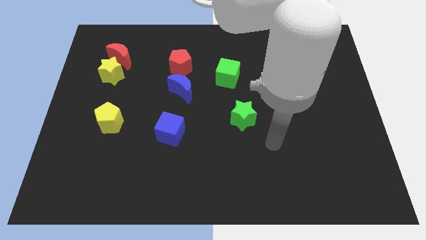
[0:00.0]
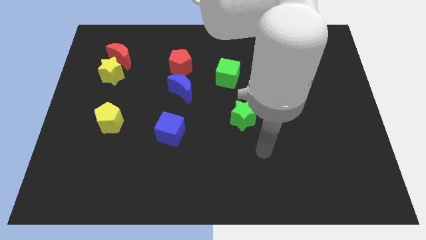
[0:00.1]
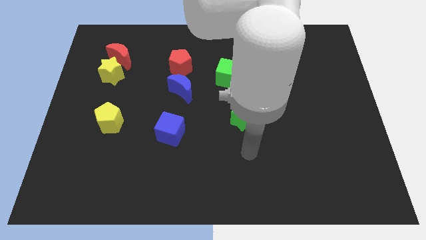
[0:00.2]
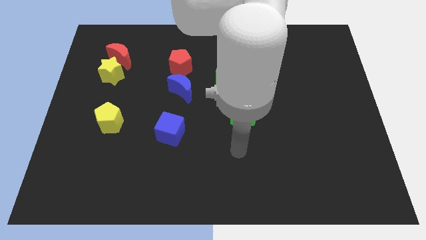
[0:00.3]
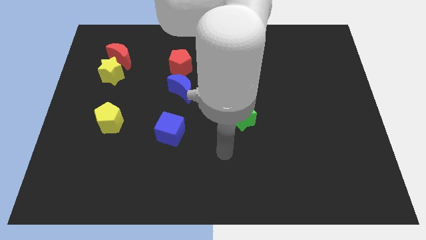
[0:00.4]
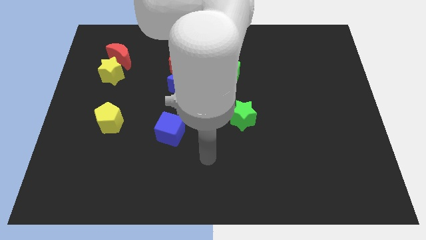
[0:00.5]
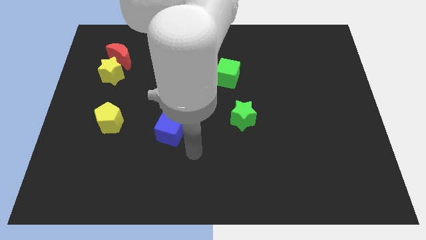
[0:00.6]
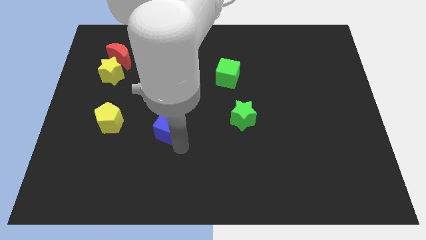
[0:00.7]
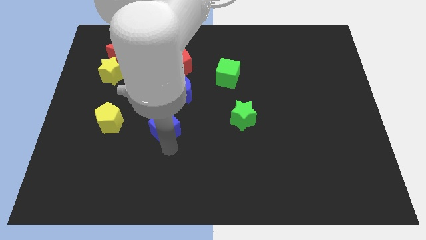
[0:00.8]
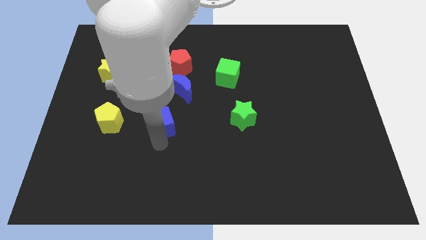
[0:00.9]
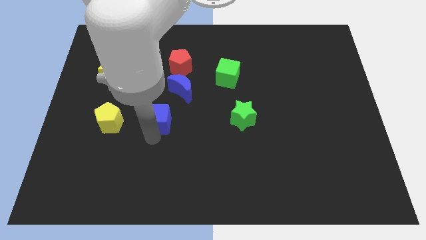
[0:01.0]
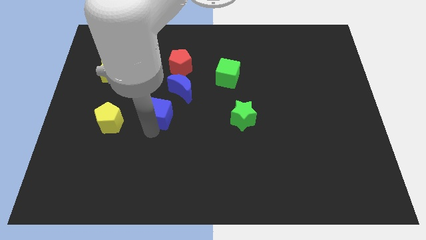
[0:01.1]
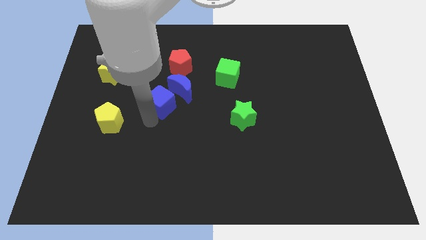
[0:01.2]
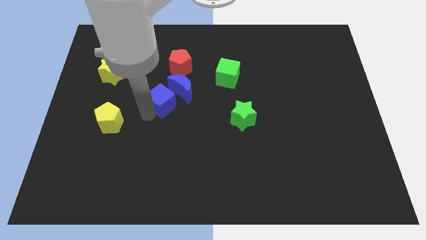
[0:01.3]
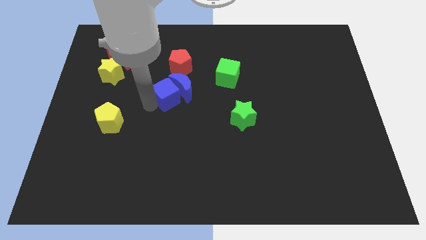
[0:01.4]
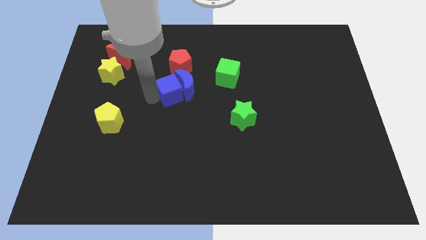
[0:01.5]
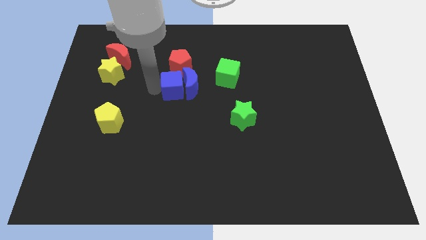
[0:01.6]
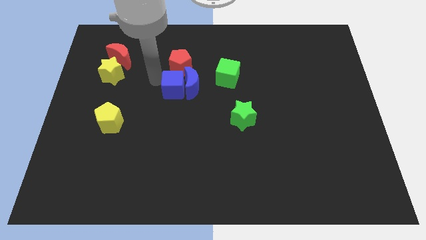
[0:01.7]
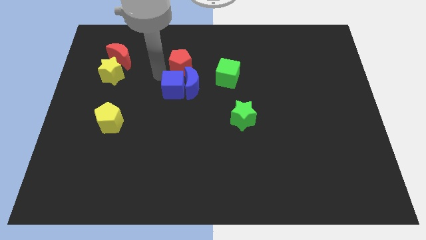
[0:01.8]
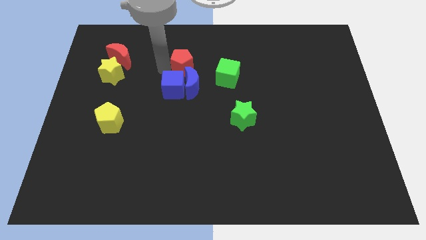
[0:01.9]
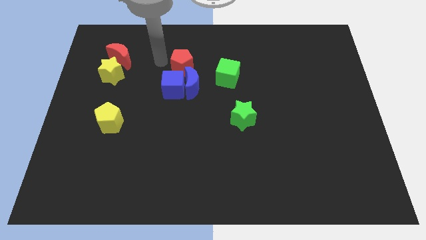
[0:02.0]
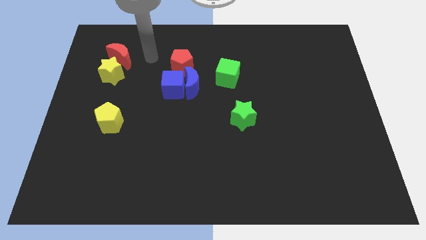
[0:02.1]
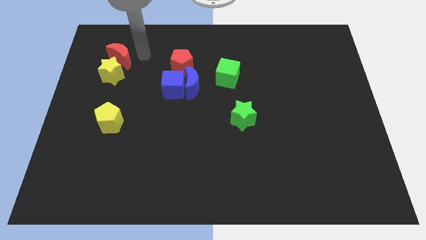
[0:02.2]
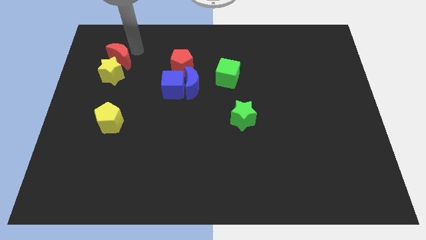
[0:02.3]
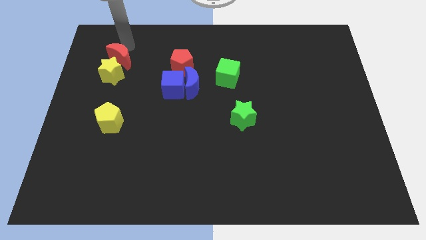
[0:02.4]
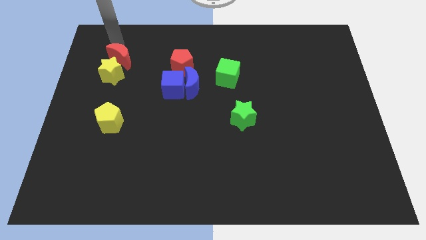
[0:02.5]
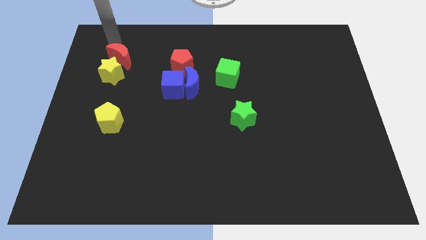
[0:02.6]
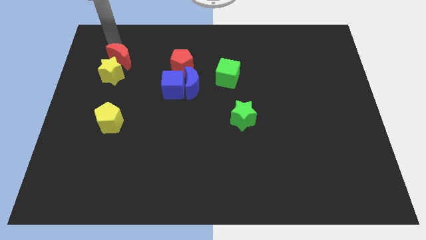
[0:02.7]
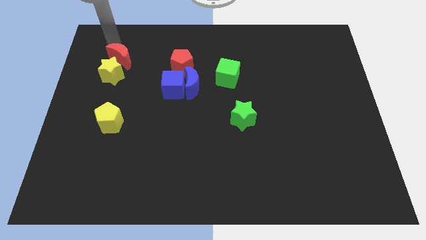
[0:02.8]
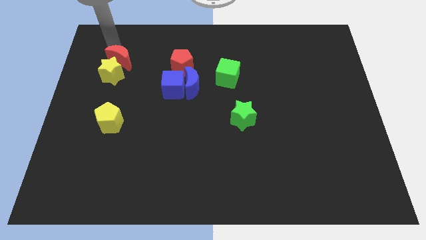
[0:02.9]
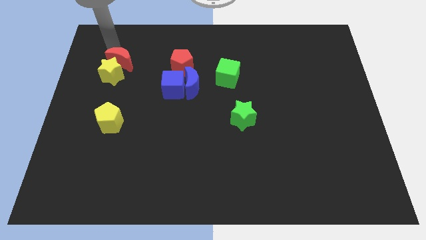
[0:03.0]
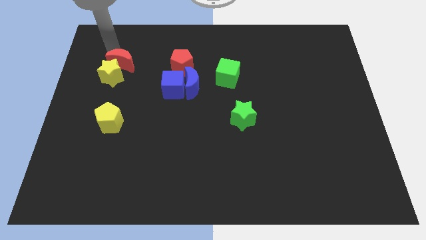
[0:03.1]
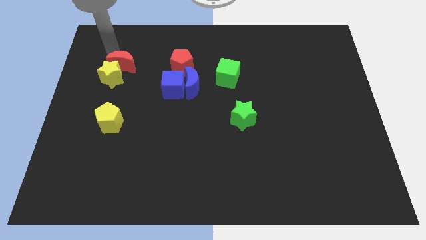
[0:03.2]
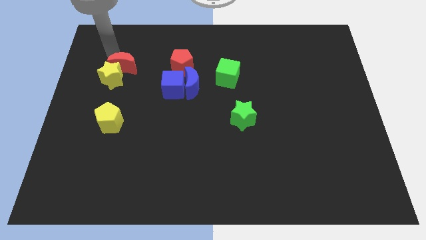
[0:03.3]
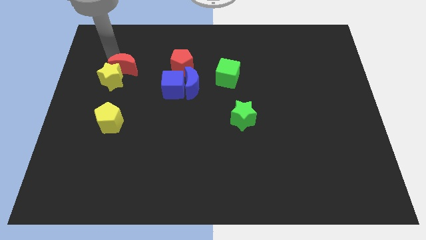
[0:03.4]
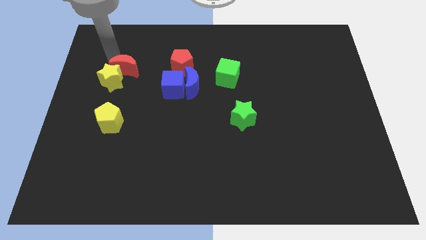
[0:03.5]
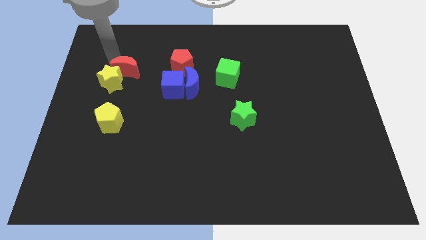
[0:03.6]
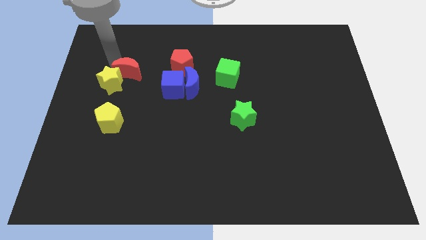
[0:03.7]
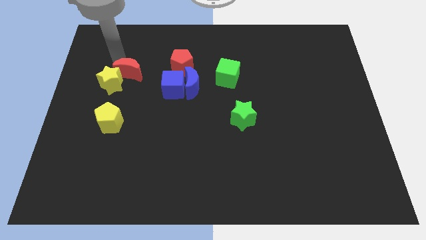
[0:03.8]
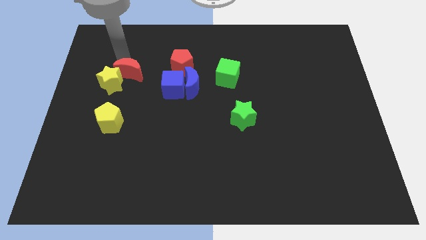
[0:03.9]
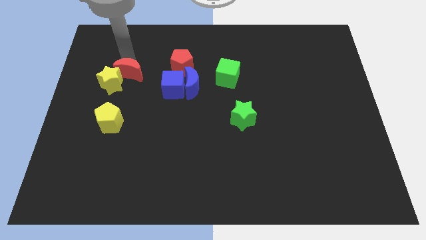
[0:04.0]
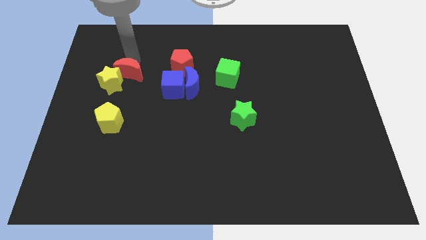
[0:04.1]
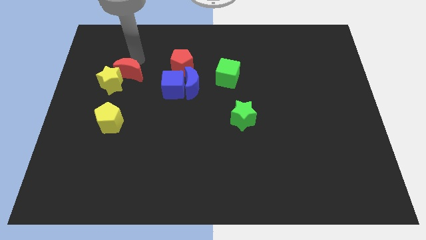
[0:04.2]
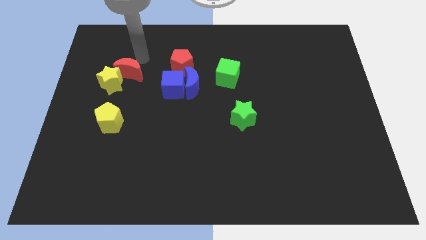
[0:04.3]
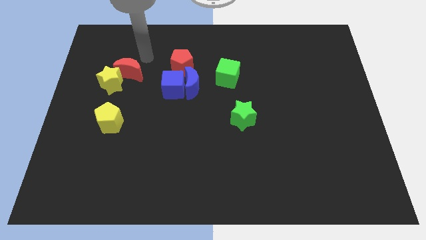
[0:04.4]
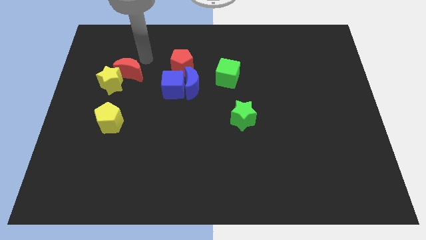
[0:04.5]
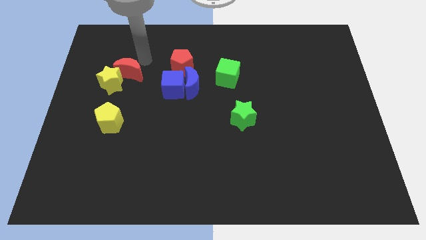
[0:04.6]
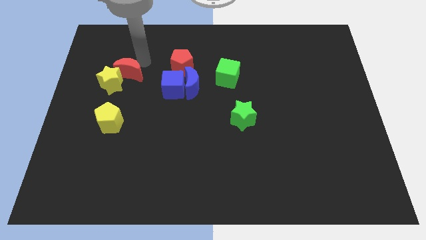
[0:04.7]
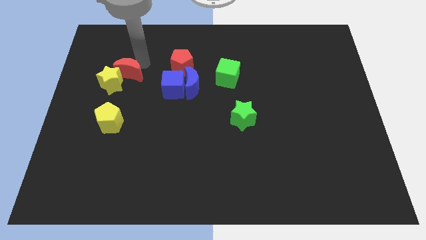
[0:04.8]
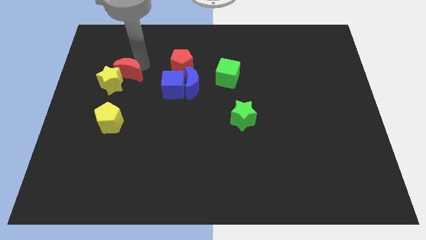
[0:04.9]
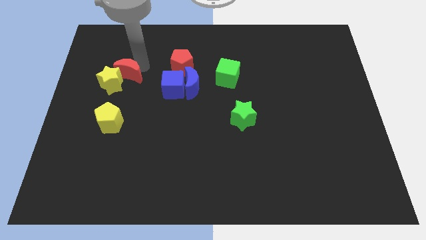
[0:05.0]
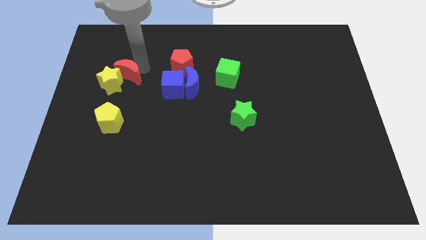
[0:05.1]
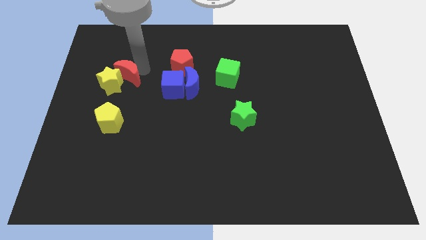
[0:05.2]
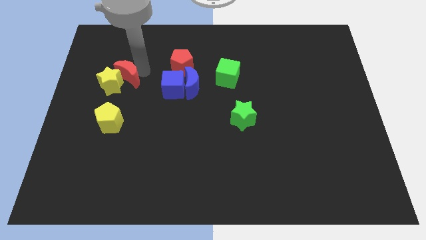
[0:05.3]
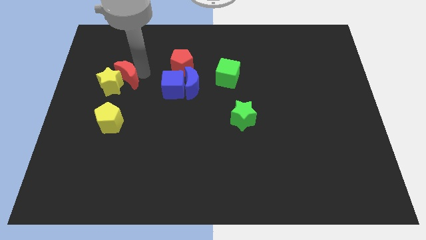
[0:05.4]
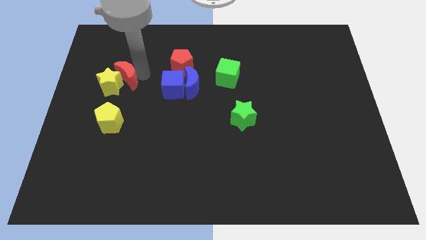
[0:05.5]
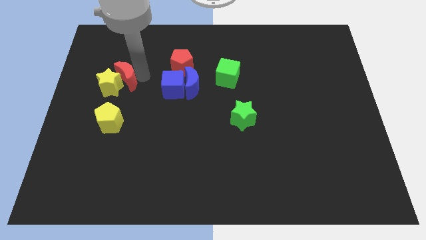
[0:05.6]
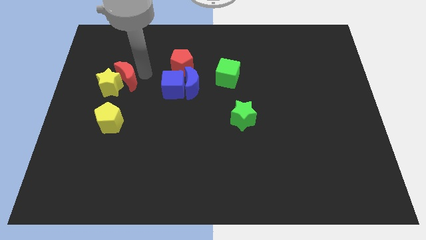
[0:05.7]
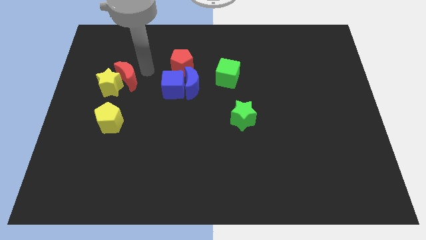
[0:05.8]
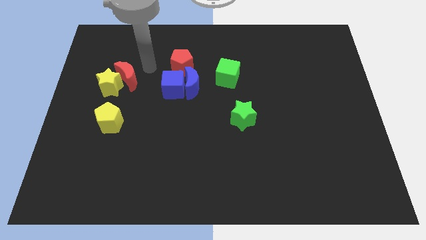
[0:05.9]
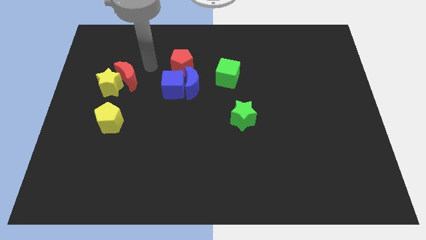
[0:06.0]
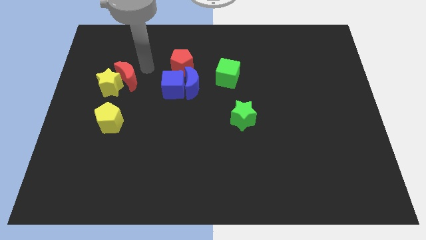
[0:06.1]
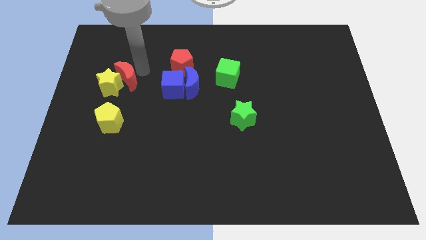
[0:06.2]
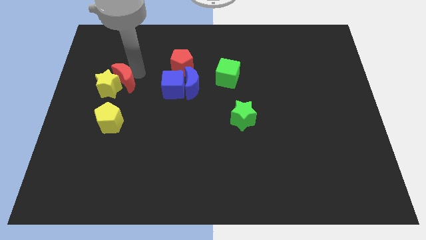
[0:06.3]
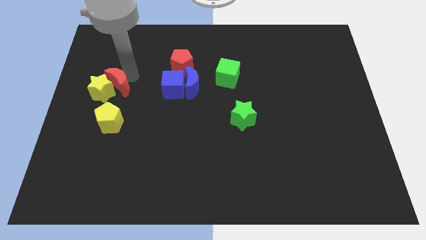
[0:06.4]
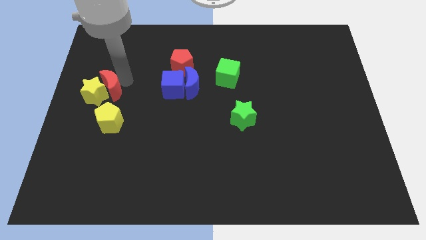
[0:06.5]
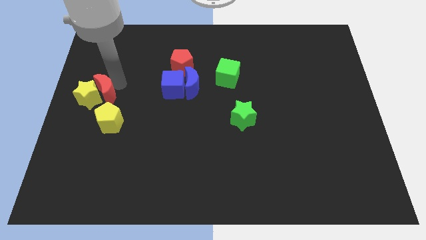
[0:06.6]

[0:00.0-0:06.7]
slide the red moon diagonally up and to the left of the yellow pentagon
